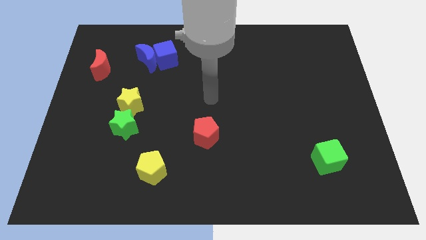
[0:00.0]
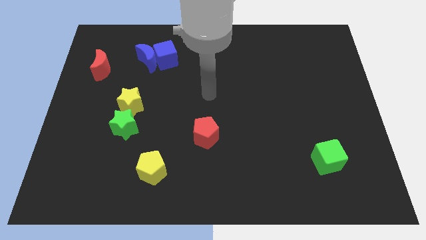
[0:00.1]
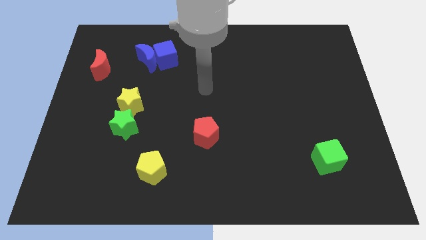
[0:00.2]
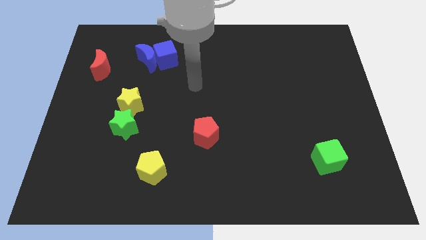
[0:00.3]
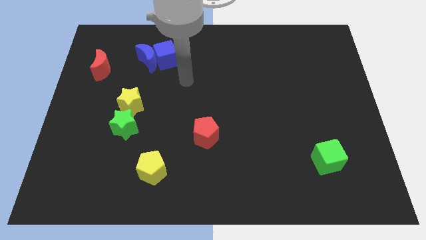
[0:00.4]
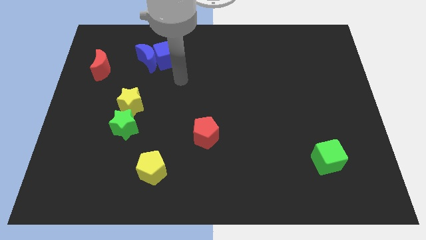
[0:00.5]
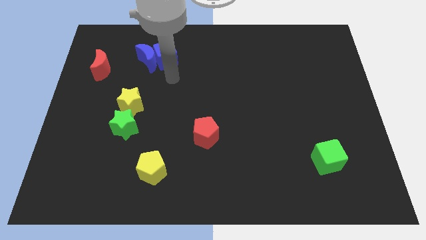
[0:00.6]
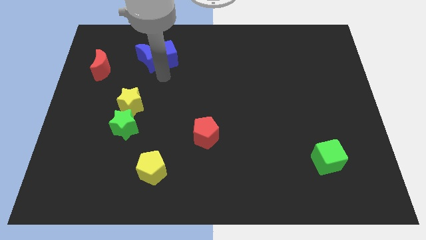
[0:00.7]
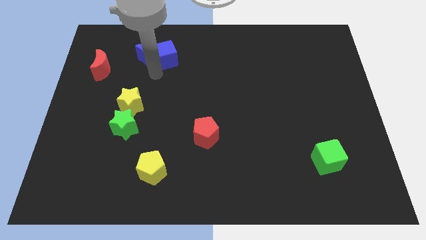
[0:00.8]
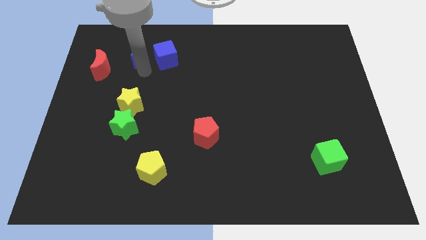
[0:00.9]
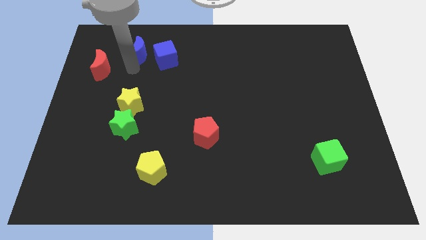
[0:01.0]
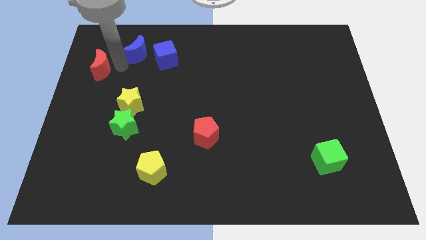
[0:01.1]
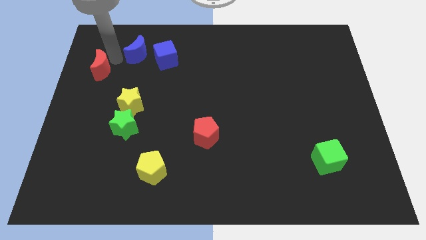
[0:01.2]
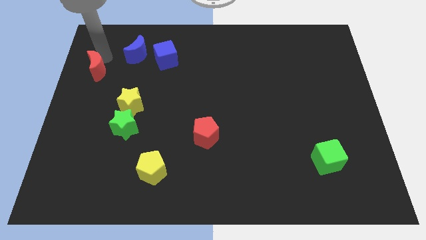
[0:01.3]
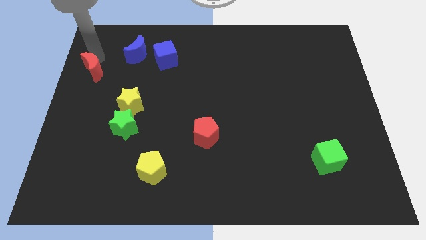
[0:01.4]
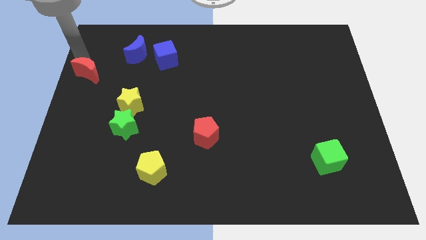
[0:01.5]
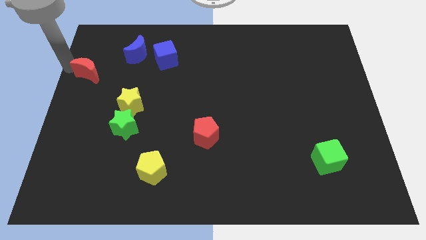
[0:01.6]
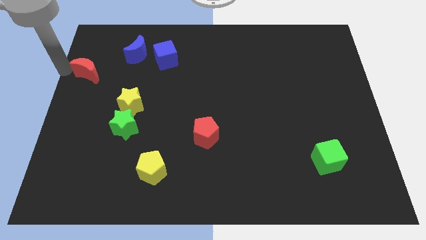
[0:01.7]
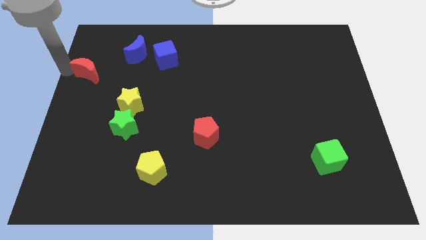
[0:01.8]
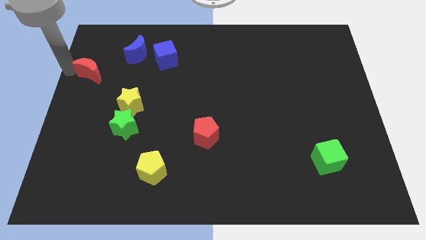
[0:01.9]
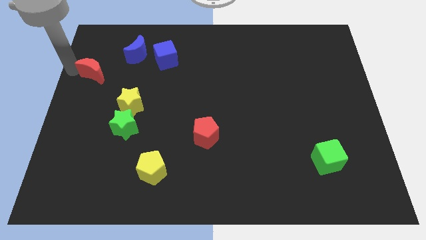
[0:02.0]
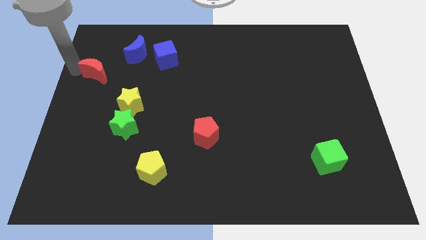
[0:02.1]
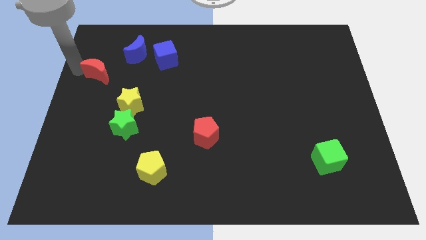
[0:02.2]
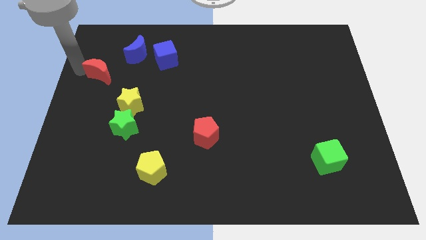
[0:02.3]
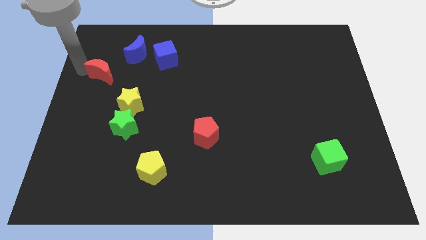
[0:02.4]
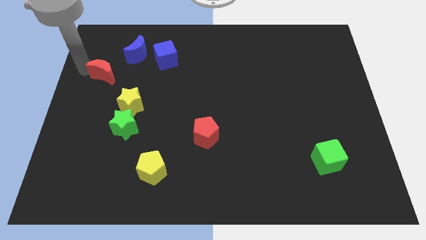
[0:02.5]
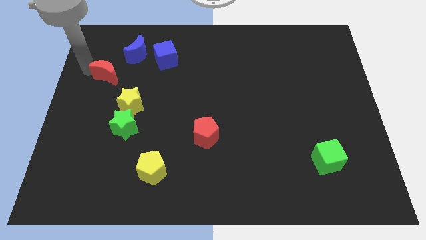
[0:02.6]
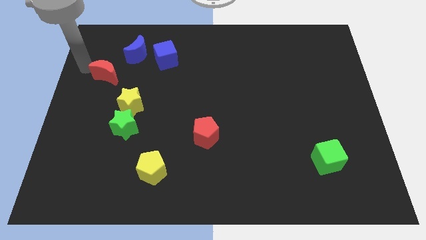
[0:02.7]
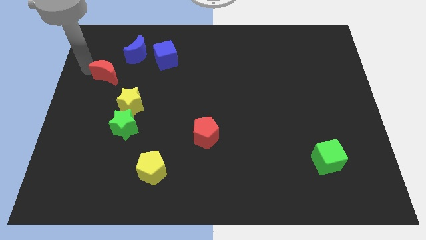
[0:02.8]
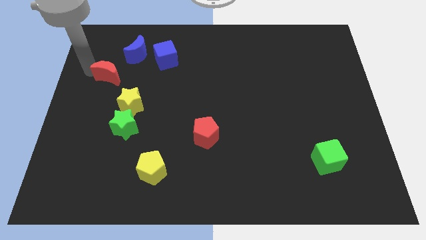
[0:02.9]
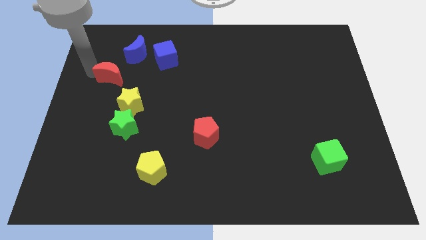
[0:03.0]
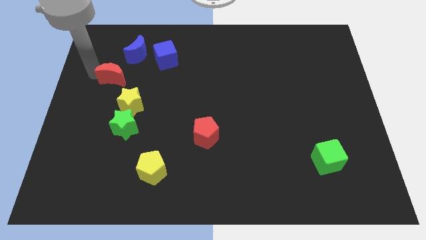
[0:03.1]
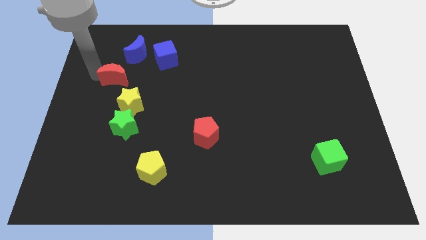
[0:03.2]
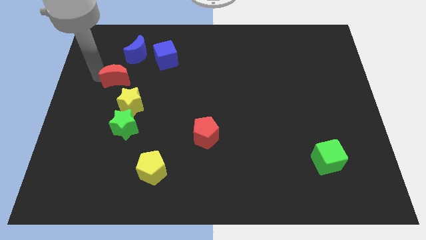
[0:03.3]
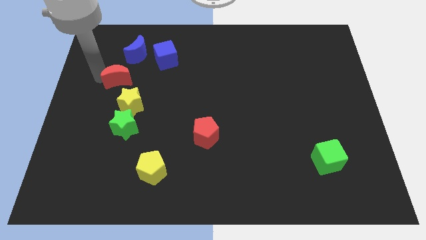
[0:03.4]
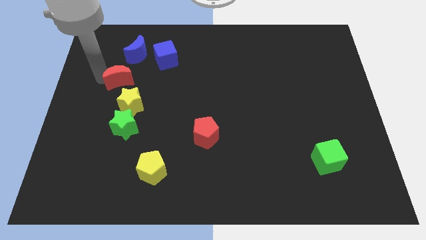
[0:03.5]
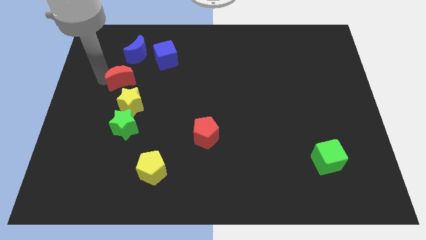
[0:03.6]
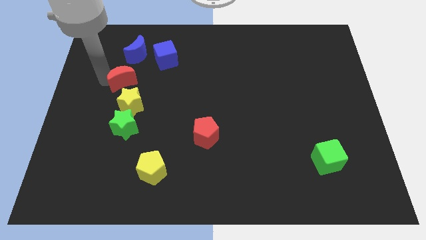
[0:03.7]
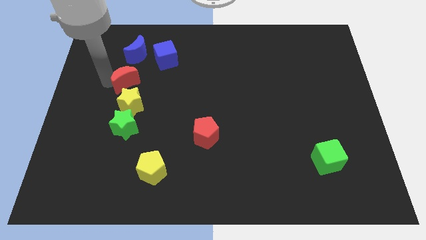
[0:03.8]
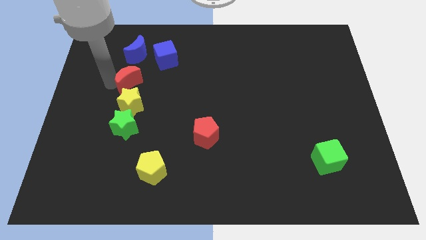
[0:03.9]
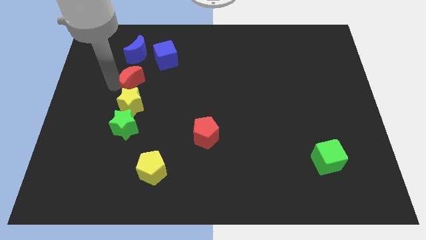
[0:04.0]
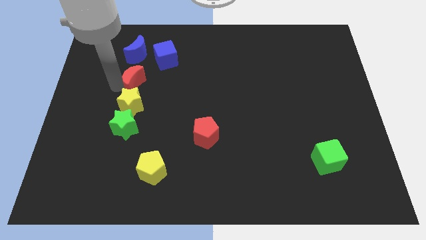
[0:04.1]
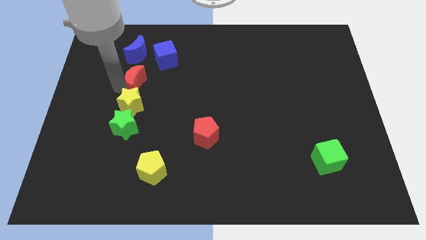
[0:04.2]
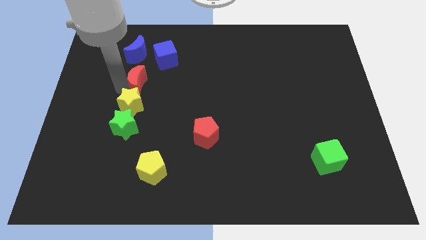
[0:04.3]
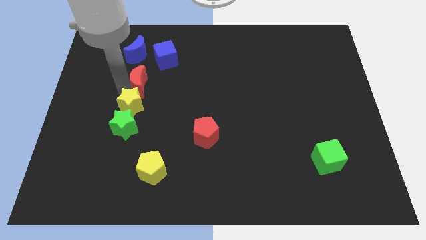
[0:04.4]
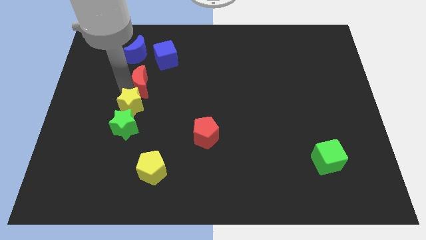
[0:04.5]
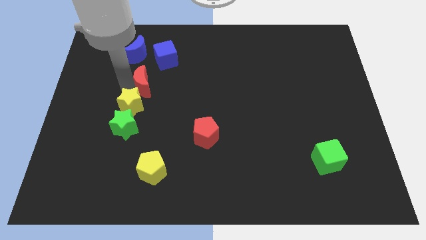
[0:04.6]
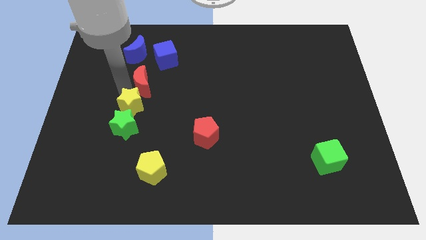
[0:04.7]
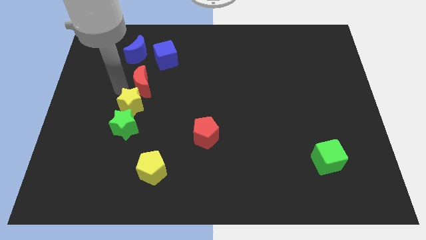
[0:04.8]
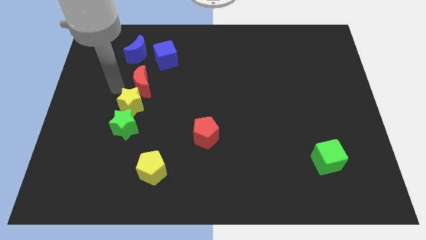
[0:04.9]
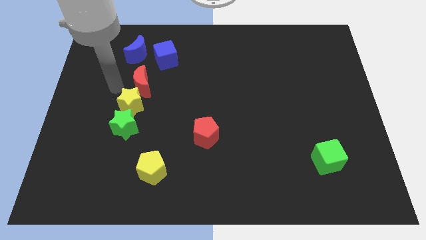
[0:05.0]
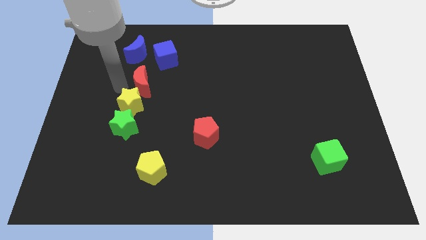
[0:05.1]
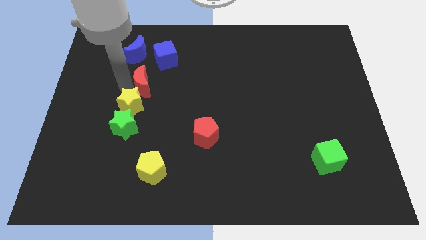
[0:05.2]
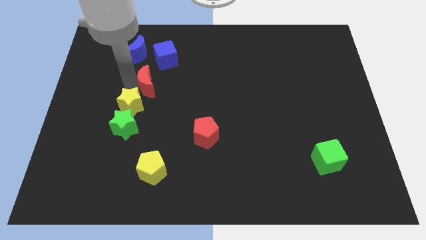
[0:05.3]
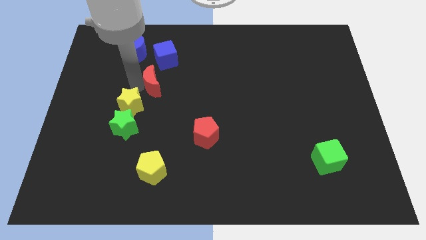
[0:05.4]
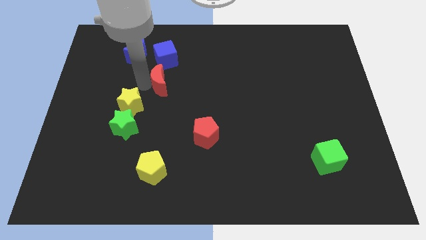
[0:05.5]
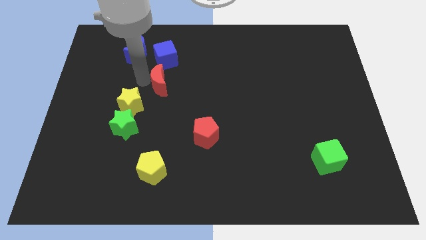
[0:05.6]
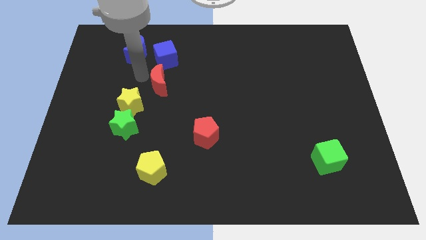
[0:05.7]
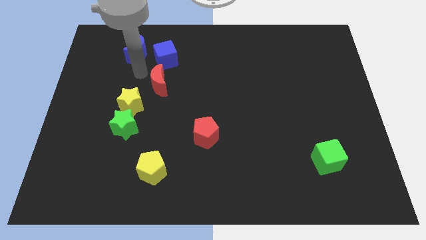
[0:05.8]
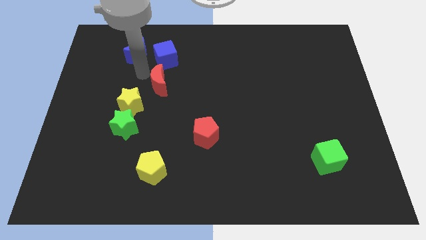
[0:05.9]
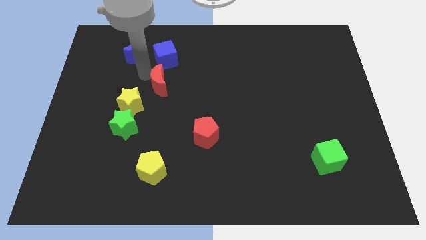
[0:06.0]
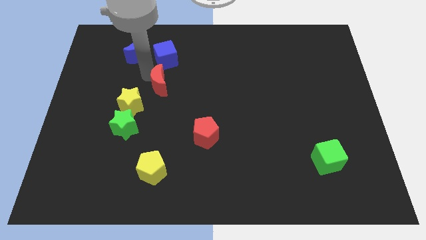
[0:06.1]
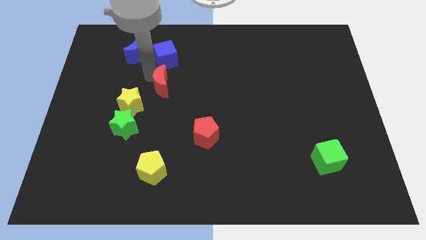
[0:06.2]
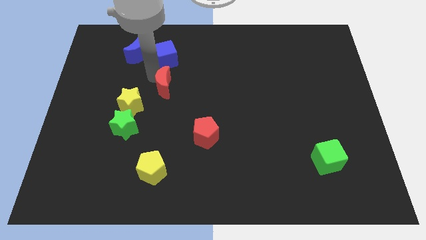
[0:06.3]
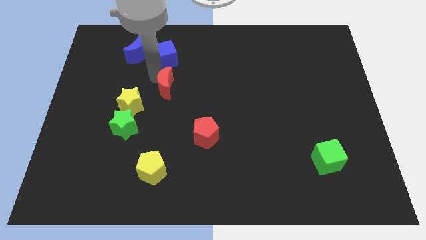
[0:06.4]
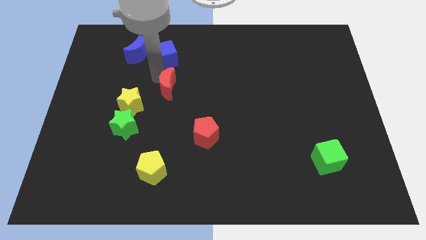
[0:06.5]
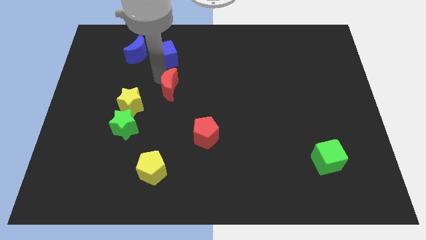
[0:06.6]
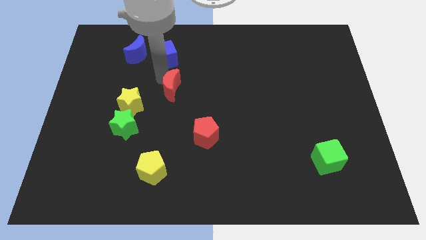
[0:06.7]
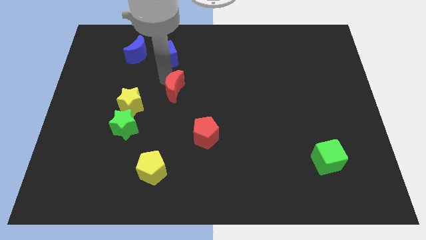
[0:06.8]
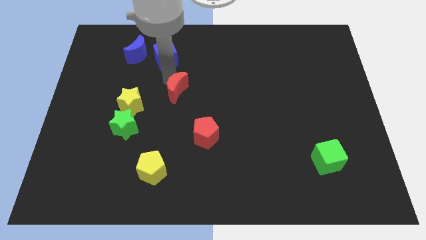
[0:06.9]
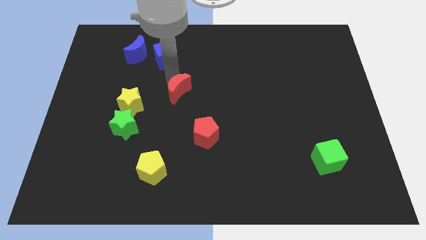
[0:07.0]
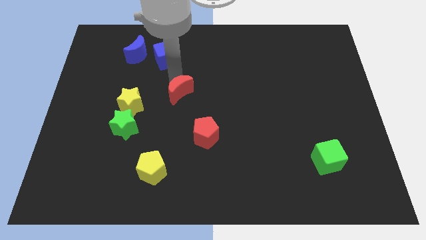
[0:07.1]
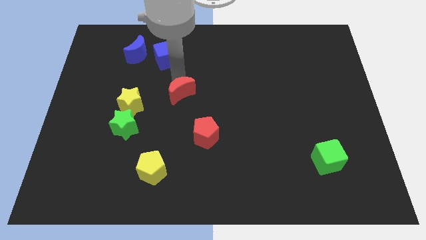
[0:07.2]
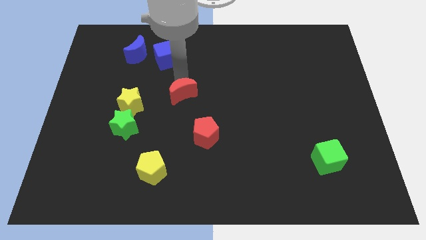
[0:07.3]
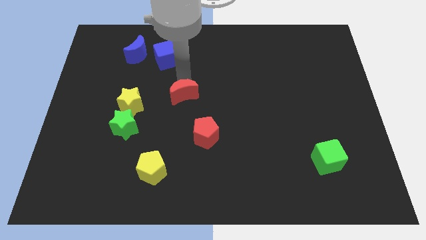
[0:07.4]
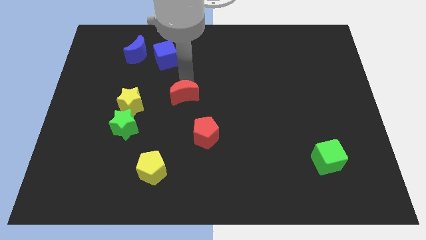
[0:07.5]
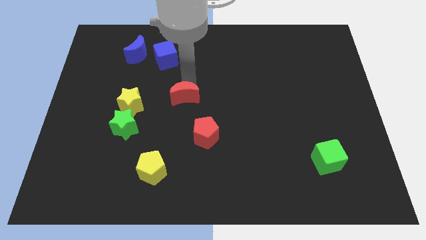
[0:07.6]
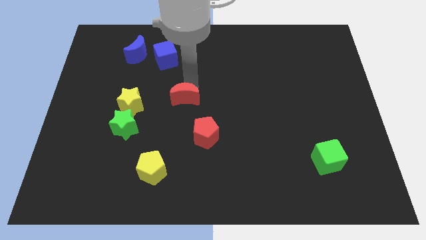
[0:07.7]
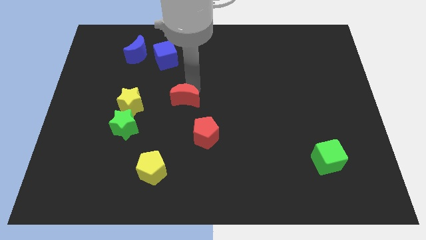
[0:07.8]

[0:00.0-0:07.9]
push the red moon to the top left side of the red pentagon
